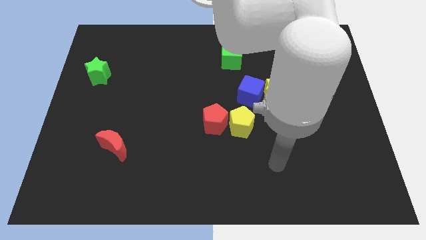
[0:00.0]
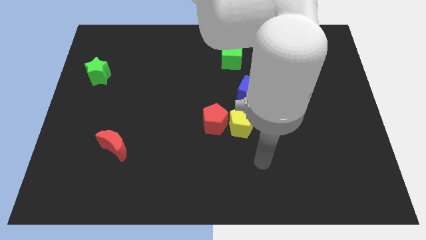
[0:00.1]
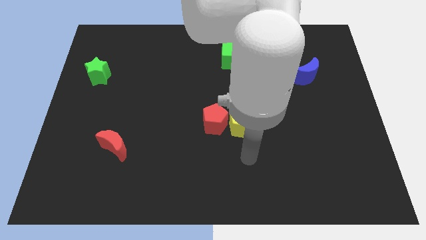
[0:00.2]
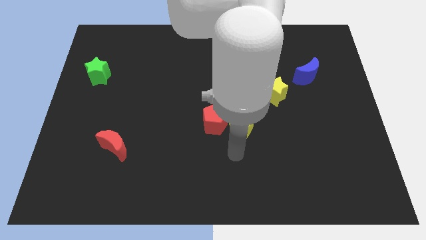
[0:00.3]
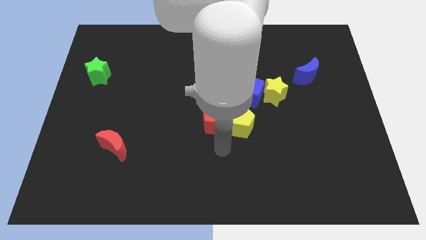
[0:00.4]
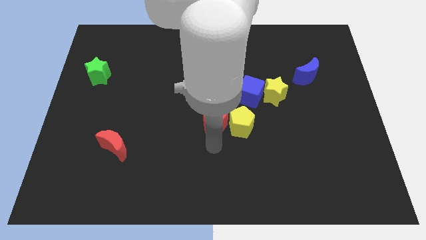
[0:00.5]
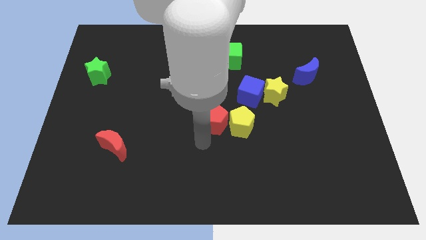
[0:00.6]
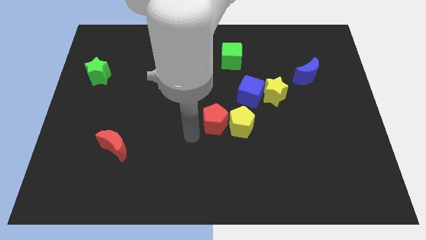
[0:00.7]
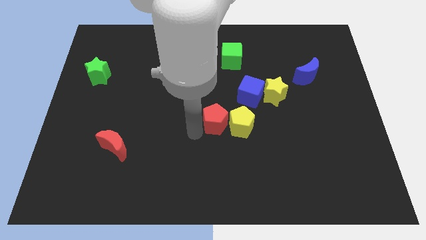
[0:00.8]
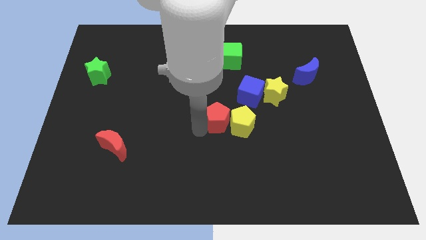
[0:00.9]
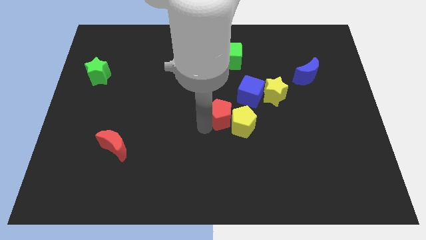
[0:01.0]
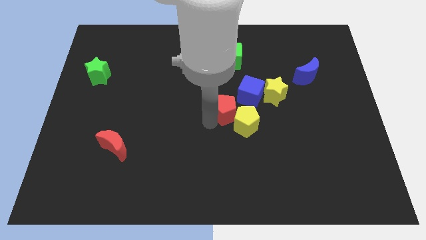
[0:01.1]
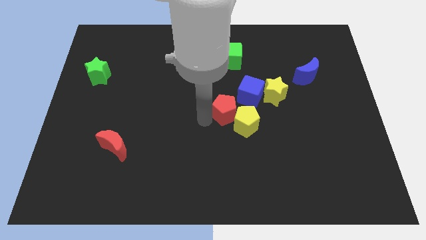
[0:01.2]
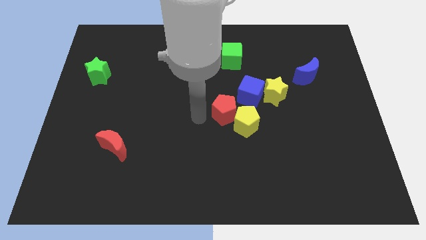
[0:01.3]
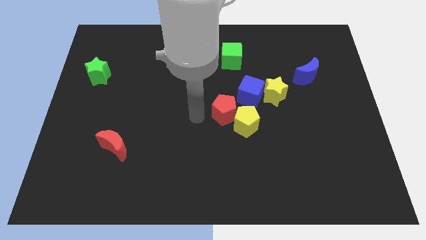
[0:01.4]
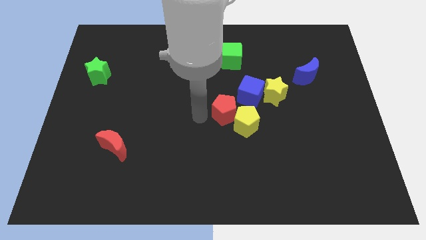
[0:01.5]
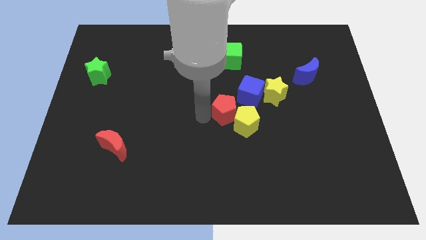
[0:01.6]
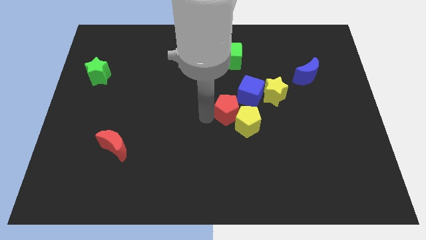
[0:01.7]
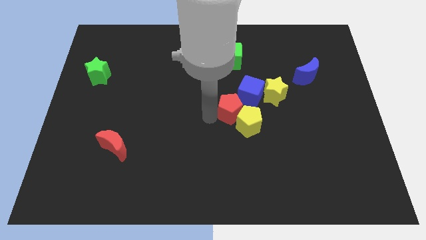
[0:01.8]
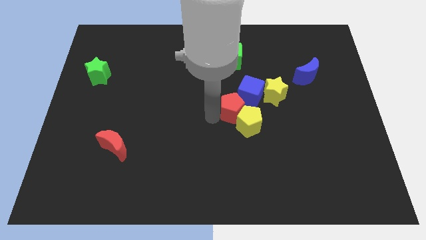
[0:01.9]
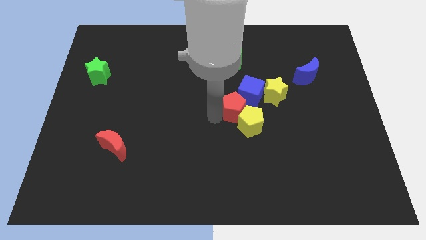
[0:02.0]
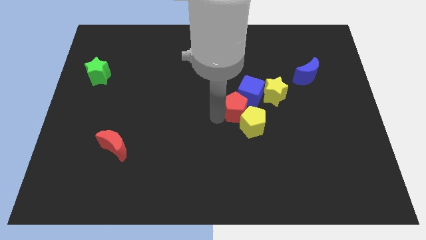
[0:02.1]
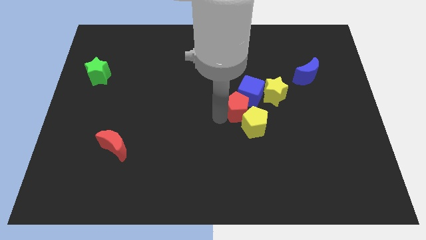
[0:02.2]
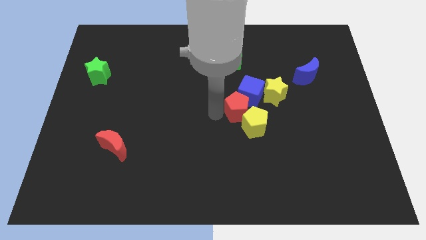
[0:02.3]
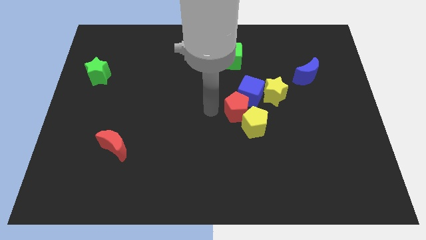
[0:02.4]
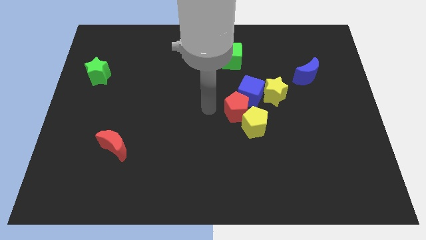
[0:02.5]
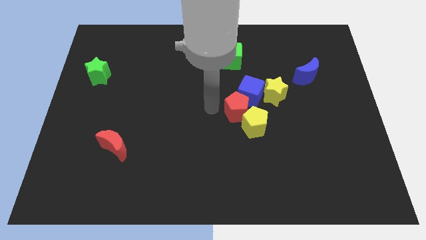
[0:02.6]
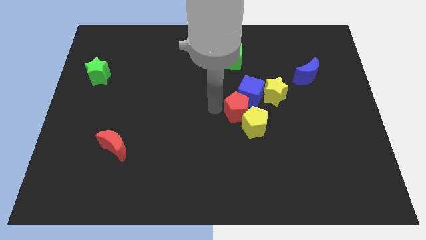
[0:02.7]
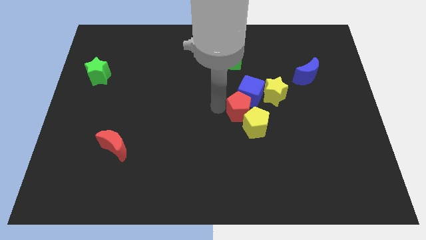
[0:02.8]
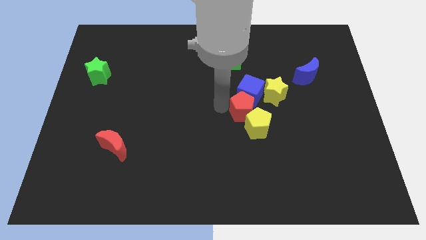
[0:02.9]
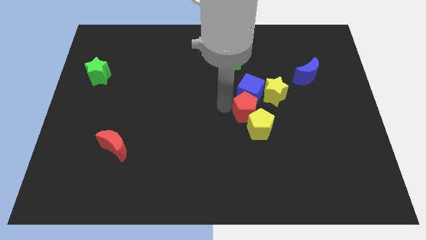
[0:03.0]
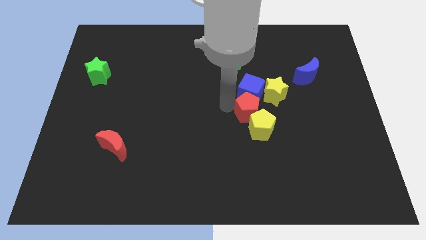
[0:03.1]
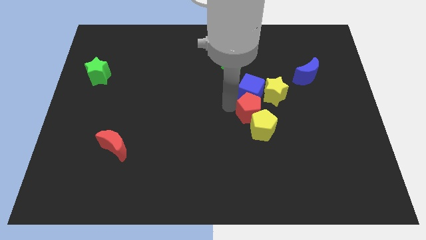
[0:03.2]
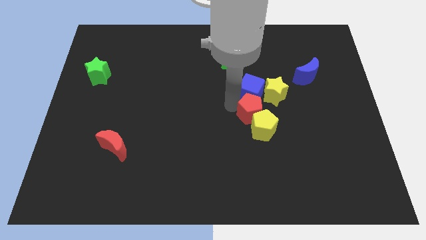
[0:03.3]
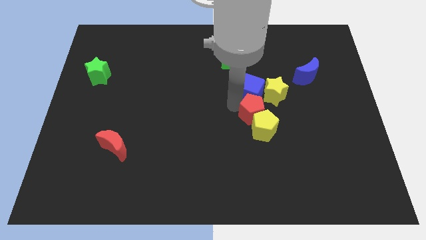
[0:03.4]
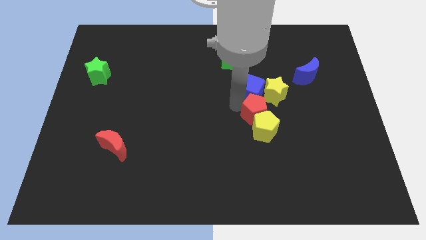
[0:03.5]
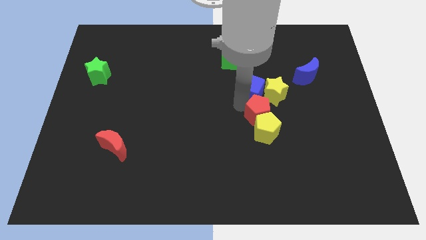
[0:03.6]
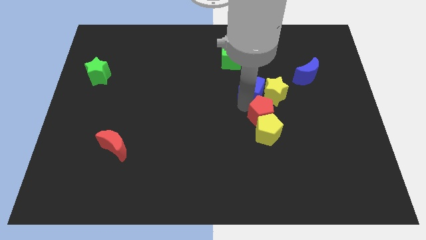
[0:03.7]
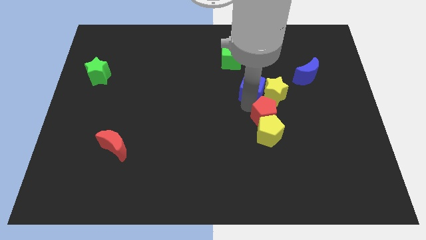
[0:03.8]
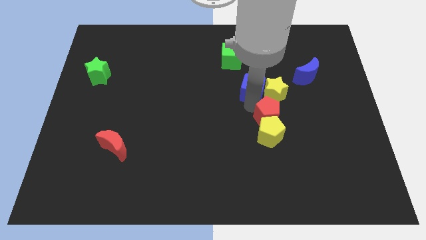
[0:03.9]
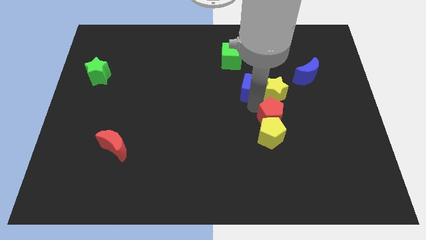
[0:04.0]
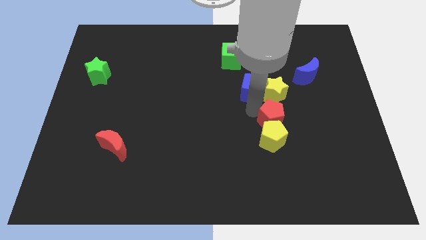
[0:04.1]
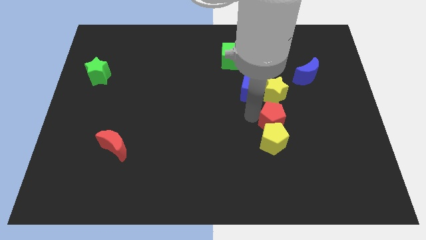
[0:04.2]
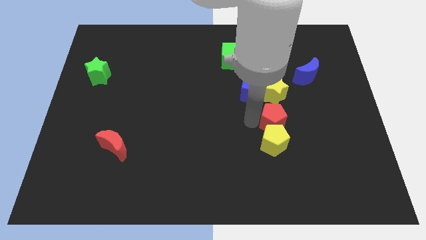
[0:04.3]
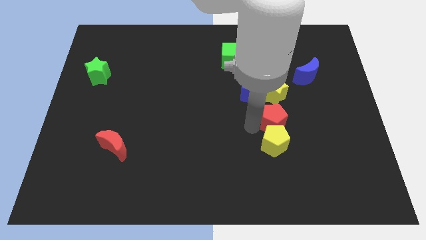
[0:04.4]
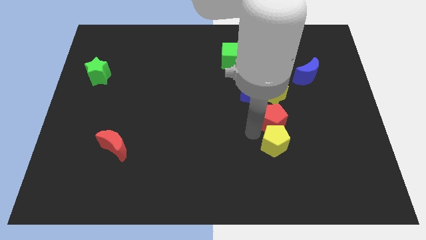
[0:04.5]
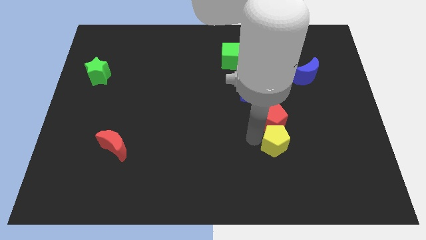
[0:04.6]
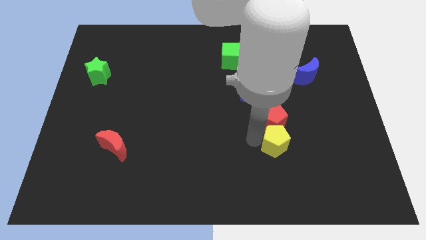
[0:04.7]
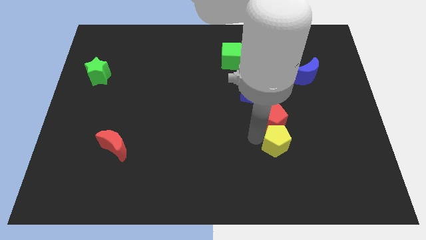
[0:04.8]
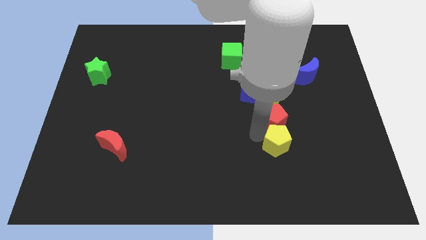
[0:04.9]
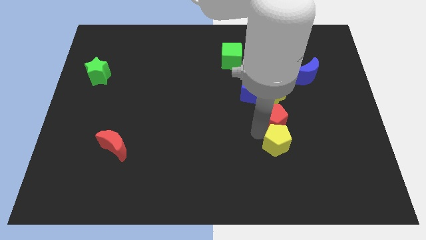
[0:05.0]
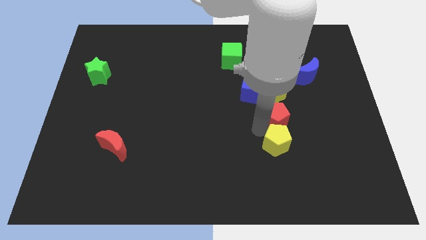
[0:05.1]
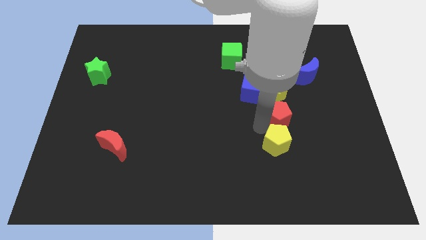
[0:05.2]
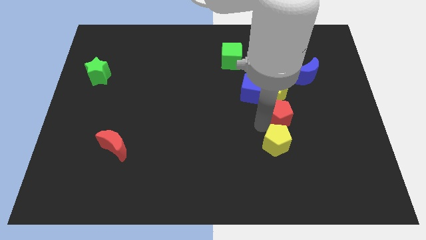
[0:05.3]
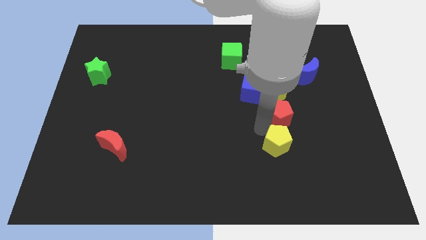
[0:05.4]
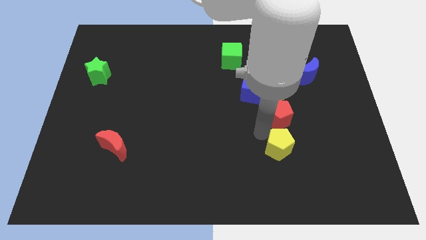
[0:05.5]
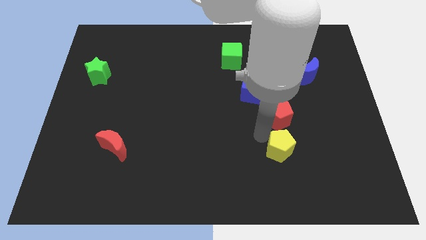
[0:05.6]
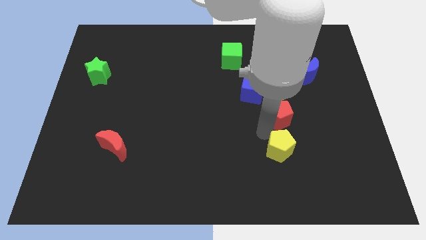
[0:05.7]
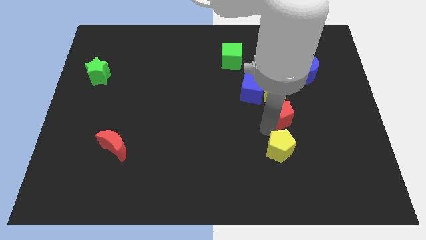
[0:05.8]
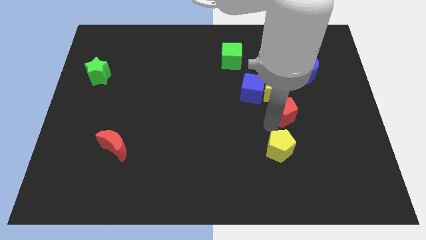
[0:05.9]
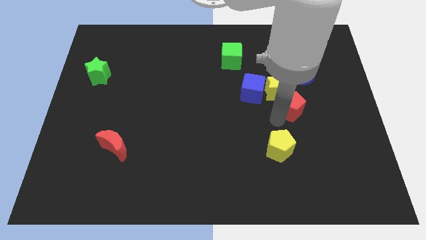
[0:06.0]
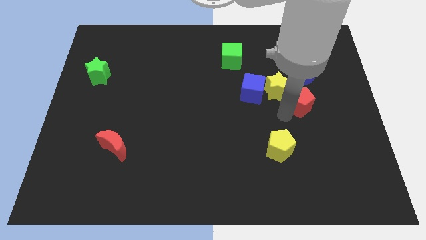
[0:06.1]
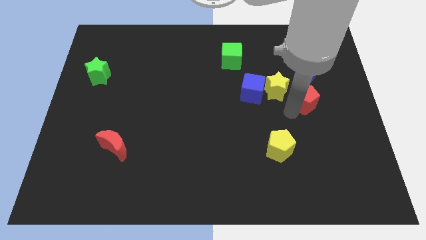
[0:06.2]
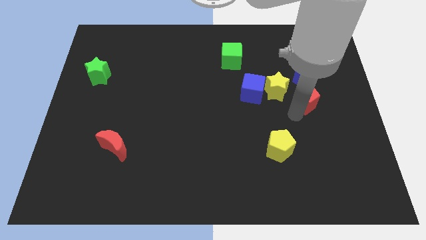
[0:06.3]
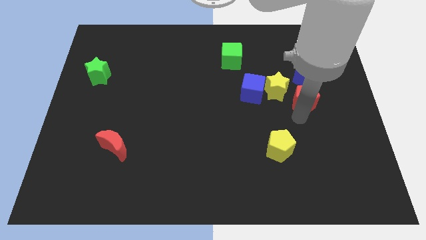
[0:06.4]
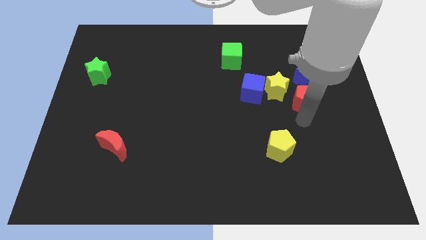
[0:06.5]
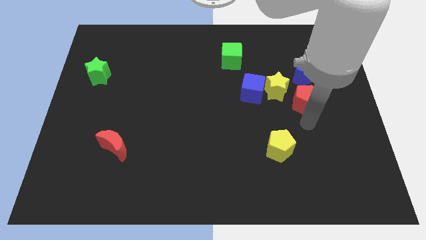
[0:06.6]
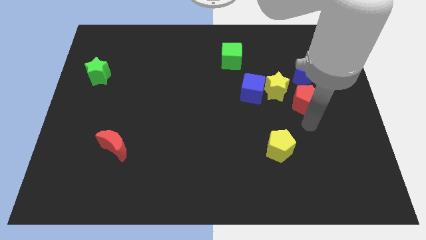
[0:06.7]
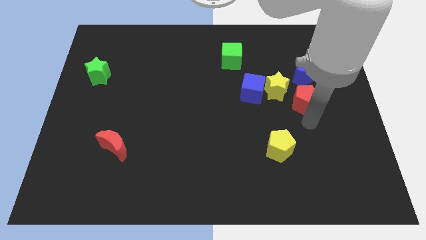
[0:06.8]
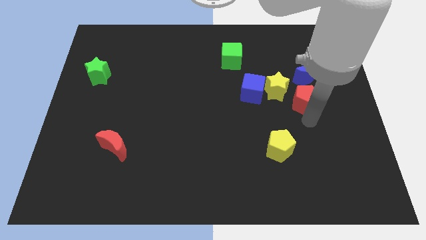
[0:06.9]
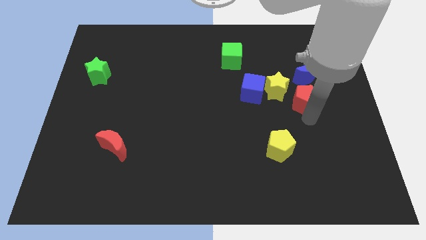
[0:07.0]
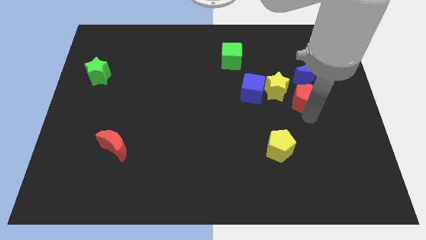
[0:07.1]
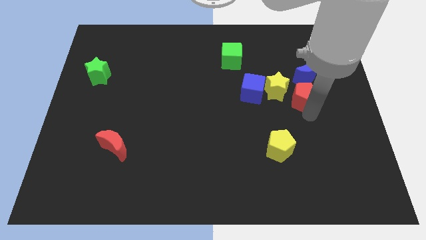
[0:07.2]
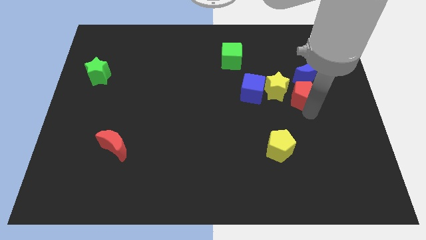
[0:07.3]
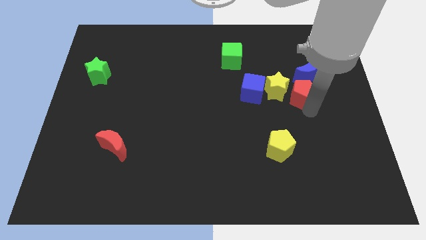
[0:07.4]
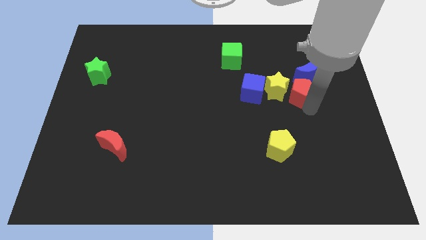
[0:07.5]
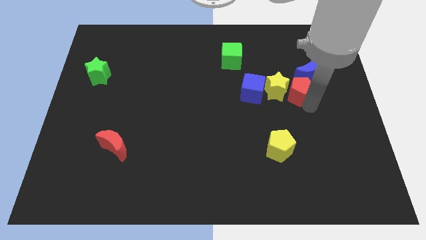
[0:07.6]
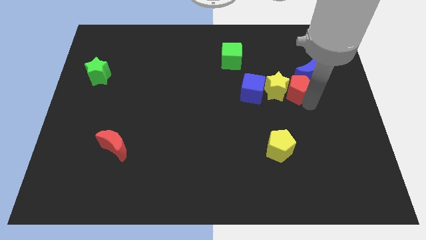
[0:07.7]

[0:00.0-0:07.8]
slide the red pentagon next to the blue moon
